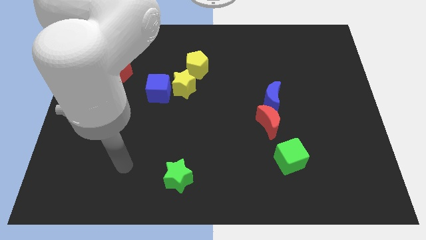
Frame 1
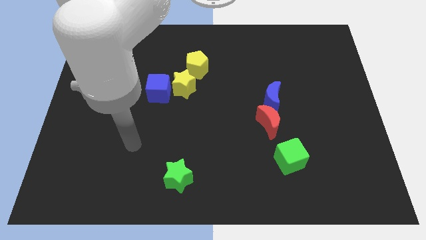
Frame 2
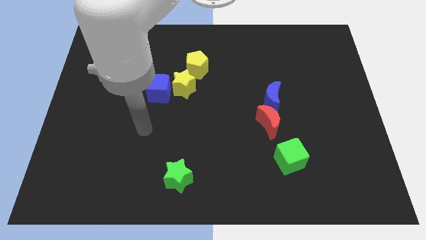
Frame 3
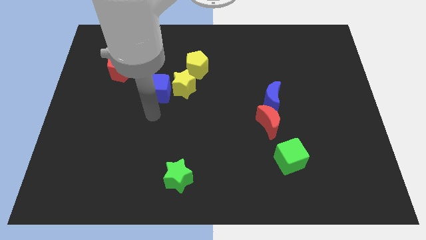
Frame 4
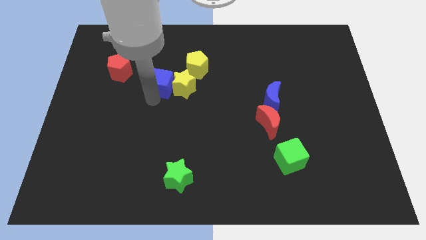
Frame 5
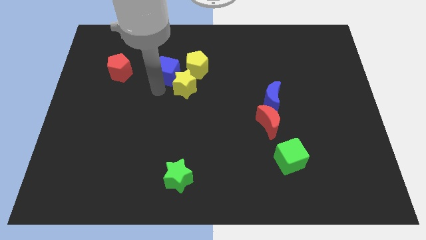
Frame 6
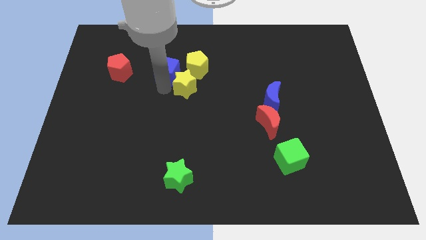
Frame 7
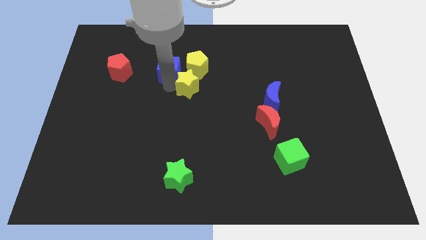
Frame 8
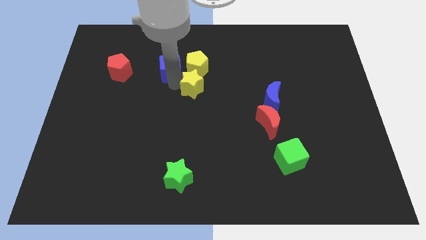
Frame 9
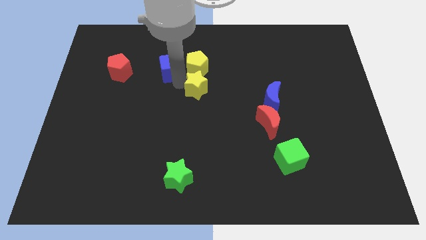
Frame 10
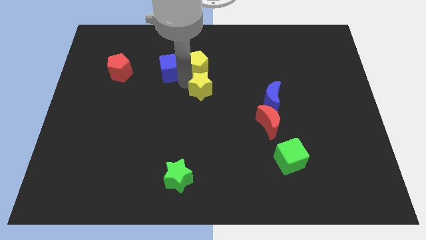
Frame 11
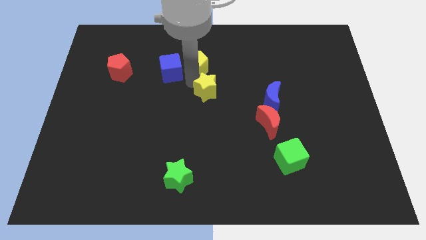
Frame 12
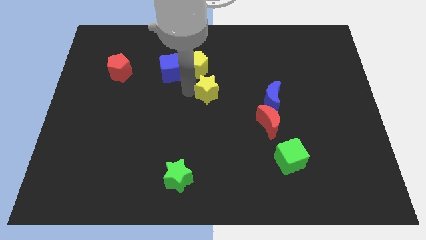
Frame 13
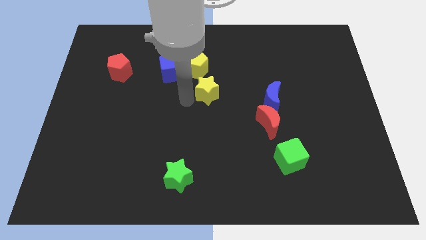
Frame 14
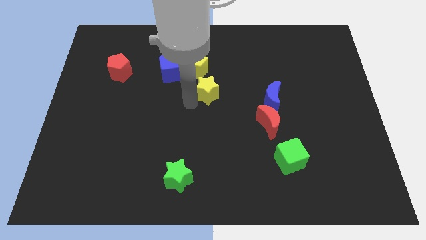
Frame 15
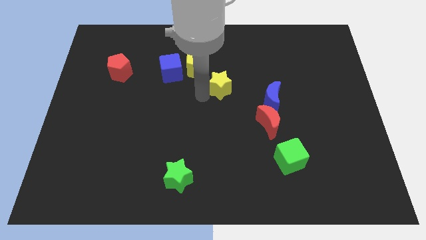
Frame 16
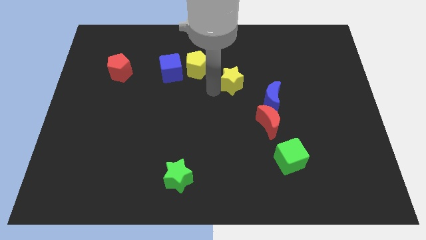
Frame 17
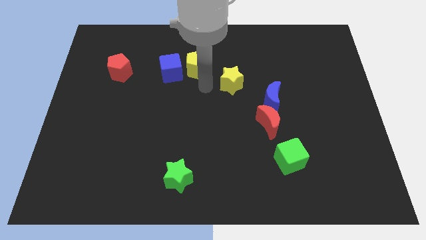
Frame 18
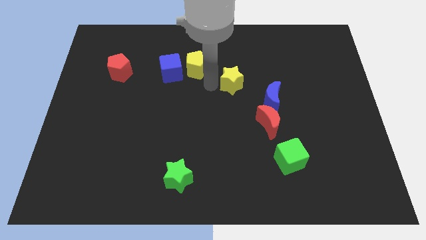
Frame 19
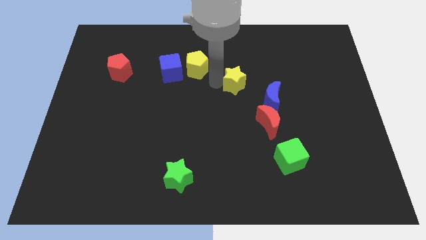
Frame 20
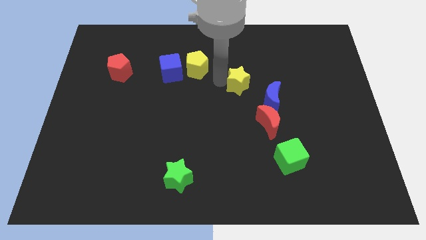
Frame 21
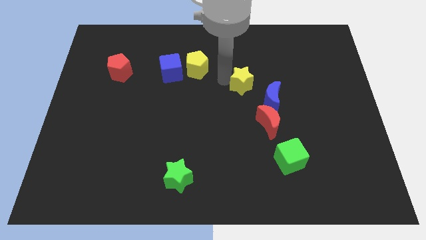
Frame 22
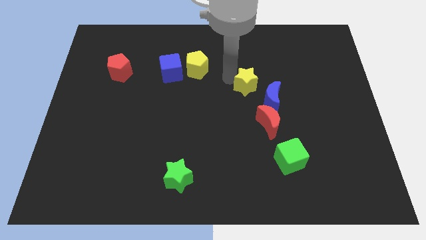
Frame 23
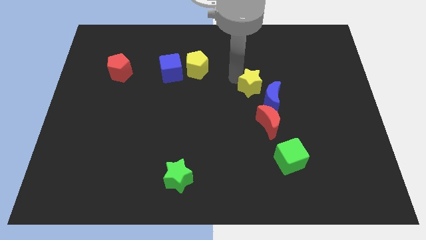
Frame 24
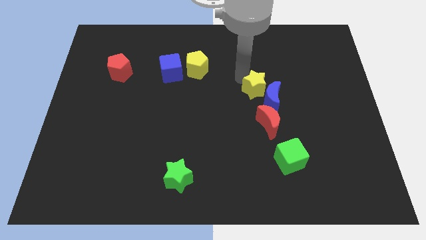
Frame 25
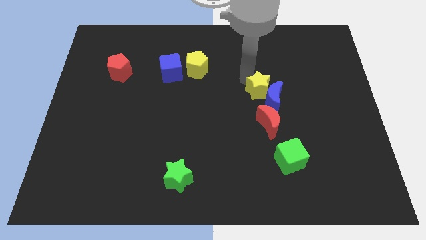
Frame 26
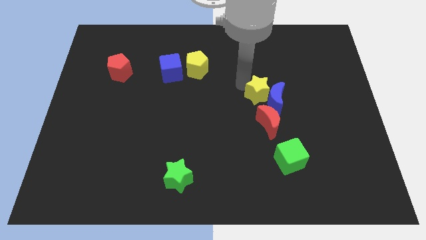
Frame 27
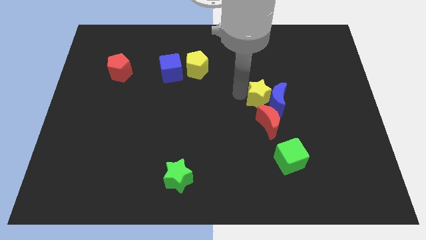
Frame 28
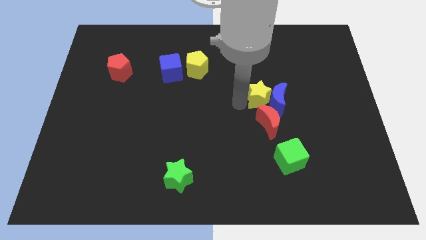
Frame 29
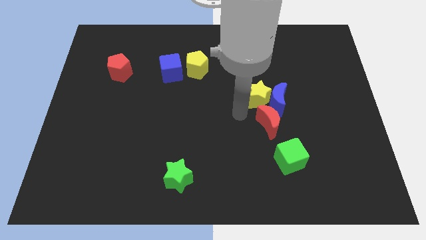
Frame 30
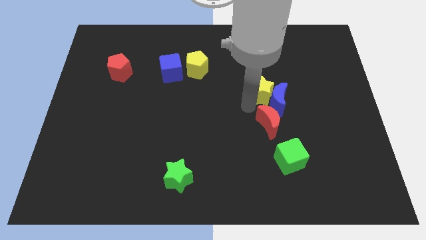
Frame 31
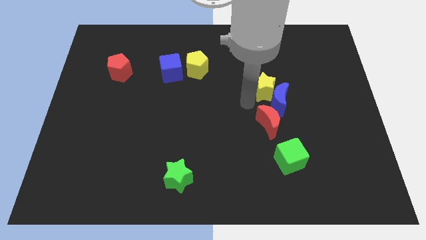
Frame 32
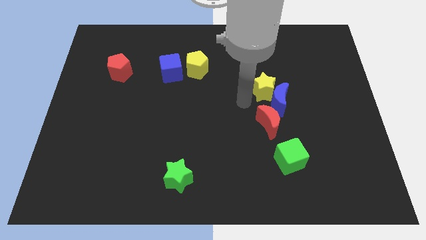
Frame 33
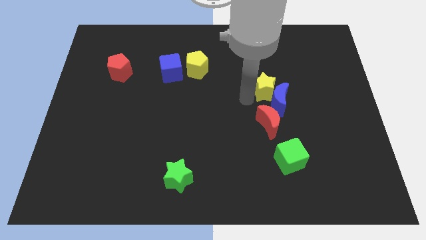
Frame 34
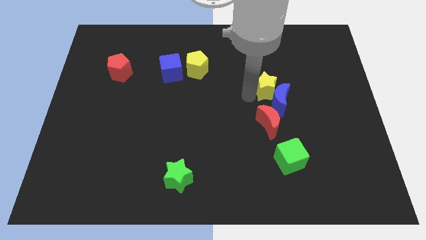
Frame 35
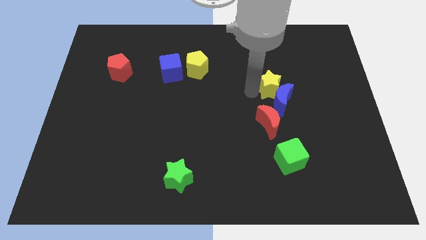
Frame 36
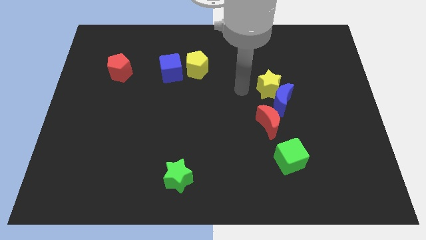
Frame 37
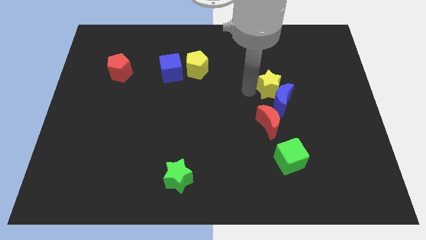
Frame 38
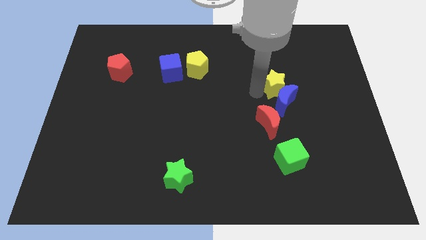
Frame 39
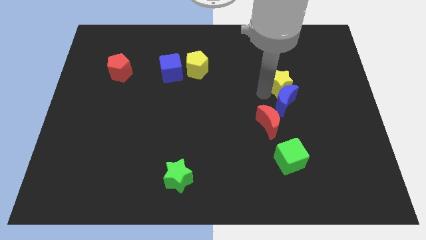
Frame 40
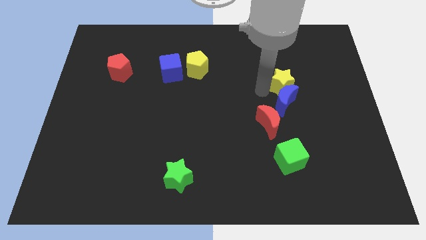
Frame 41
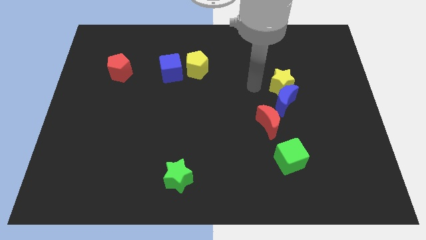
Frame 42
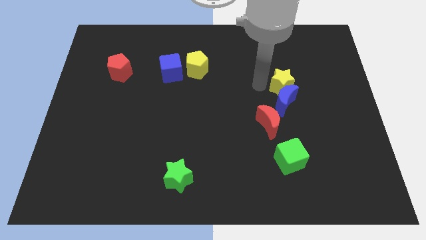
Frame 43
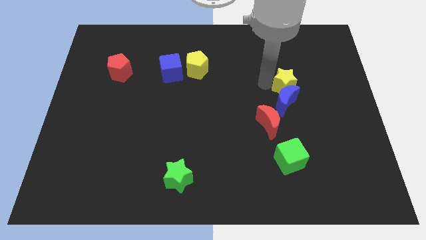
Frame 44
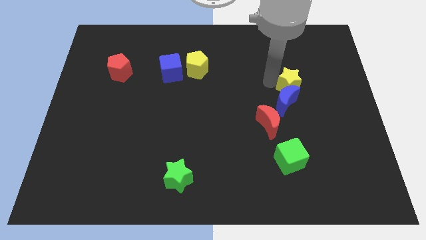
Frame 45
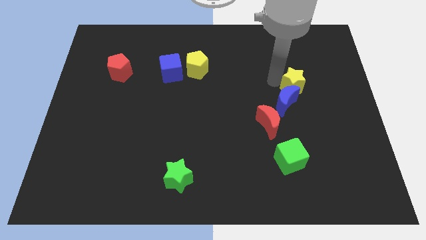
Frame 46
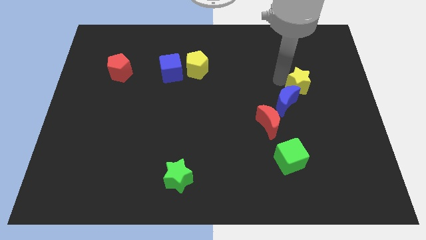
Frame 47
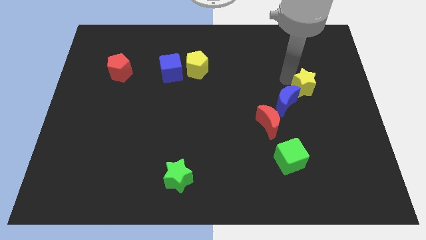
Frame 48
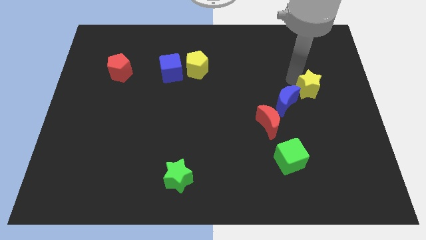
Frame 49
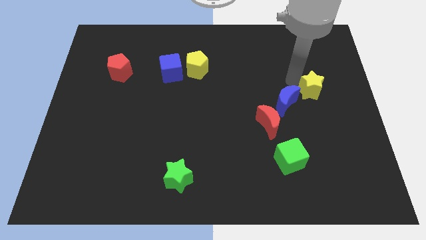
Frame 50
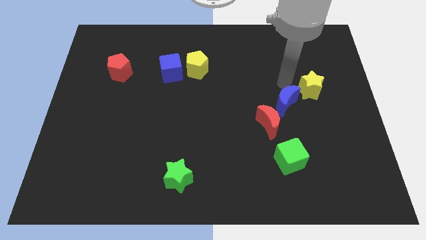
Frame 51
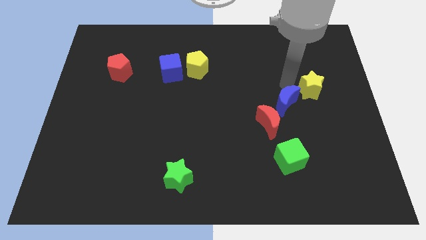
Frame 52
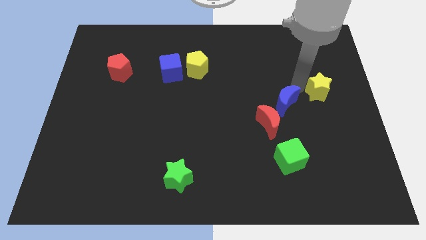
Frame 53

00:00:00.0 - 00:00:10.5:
push the yellow star to the right side

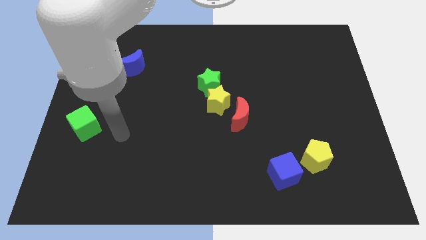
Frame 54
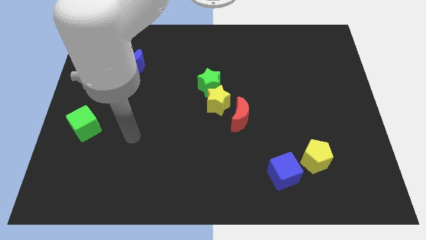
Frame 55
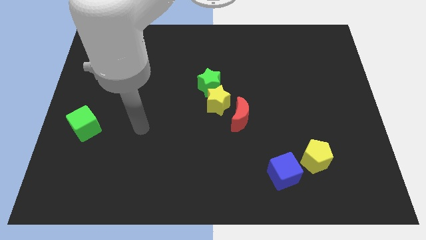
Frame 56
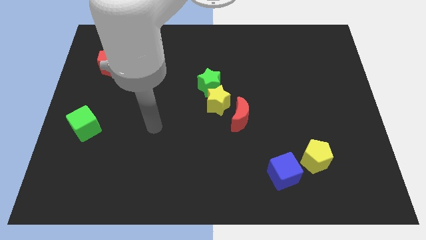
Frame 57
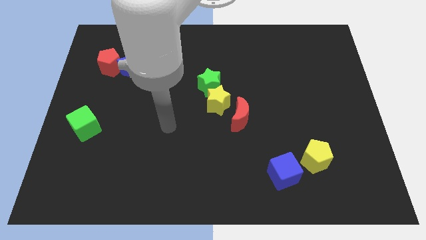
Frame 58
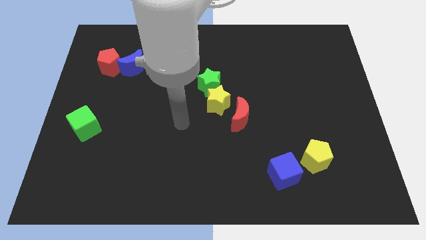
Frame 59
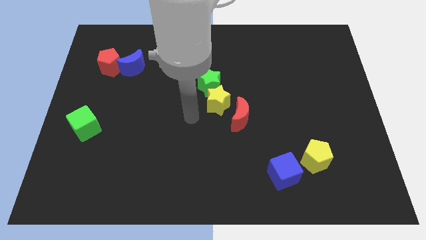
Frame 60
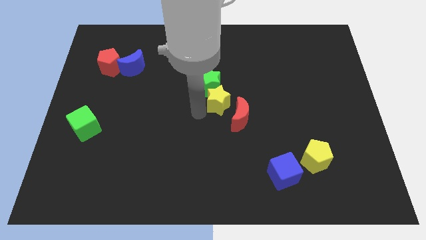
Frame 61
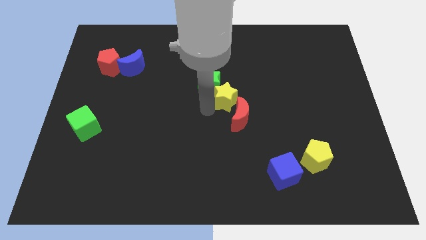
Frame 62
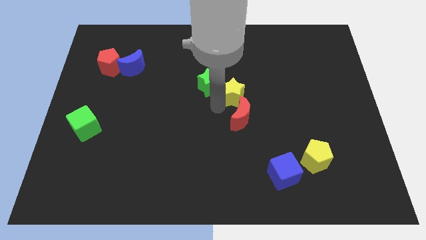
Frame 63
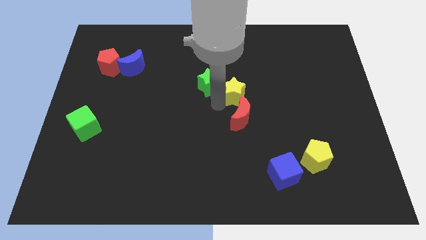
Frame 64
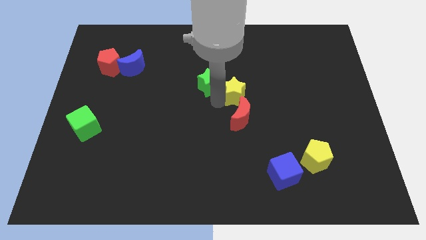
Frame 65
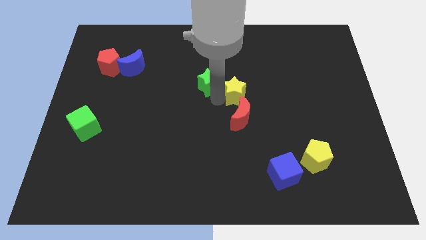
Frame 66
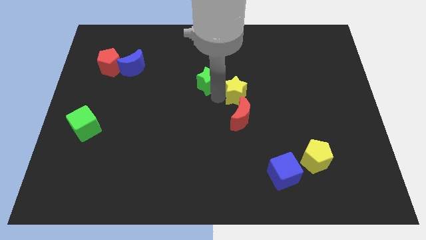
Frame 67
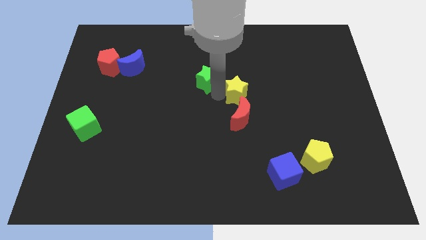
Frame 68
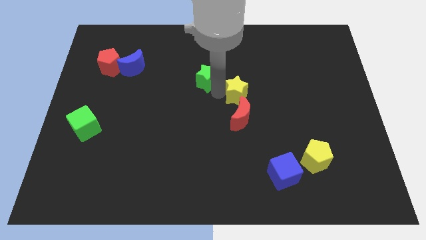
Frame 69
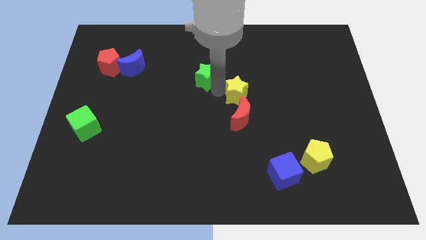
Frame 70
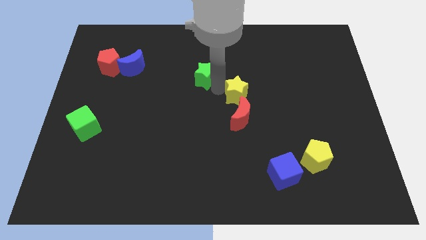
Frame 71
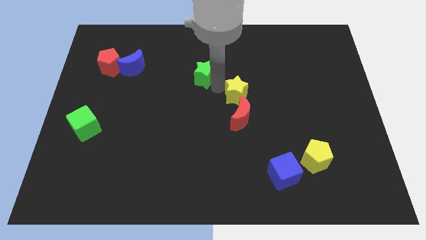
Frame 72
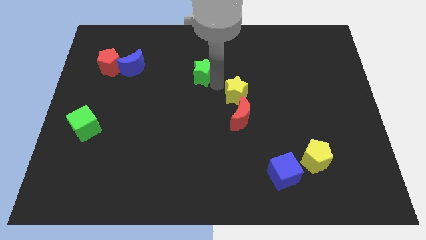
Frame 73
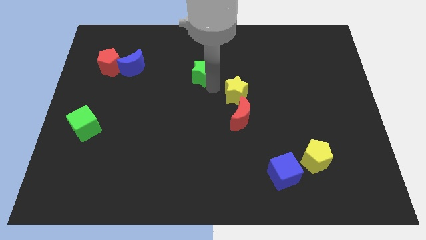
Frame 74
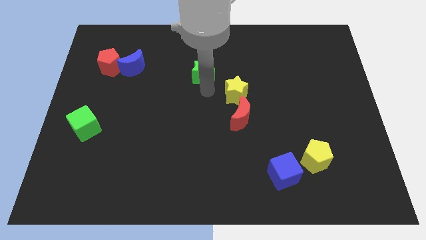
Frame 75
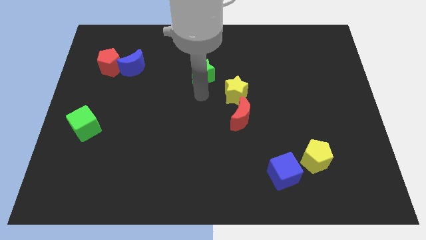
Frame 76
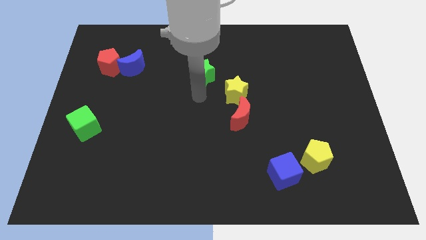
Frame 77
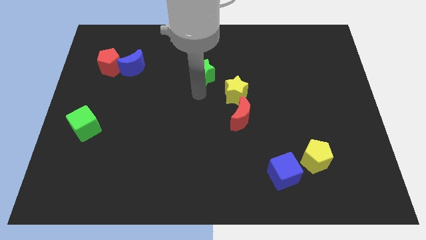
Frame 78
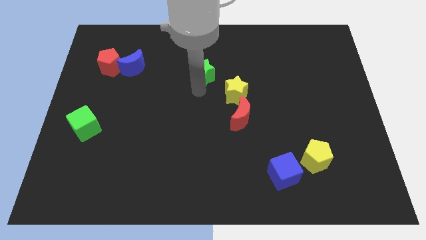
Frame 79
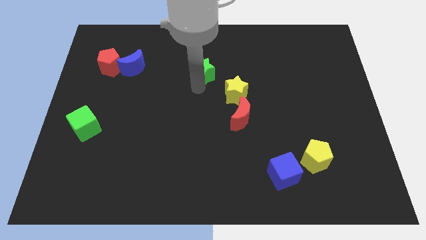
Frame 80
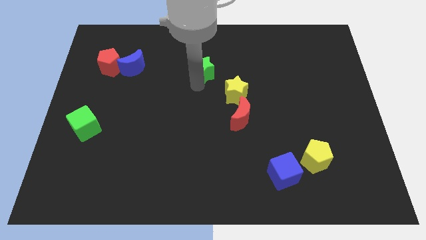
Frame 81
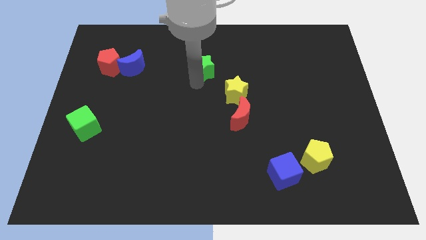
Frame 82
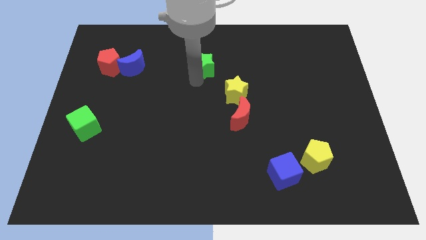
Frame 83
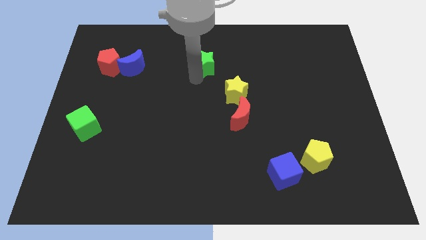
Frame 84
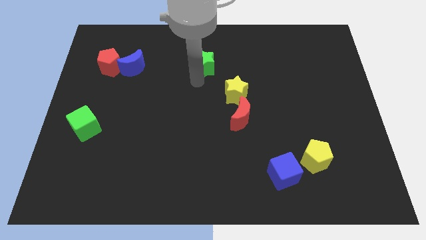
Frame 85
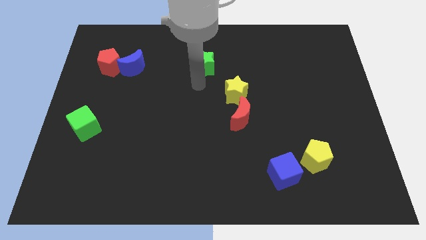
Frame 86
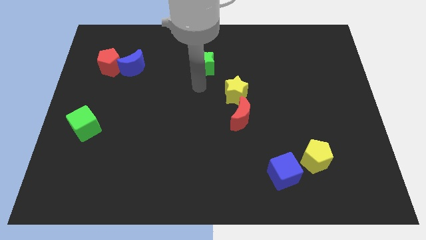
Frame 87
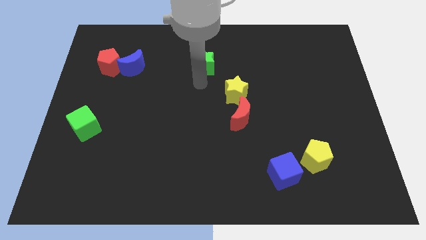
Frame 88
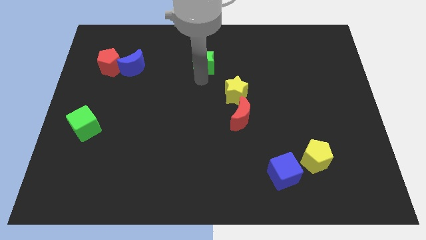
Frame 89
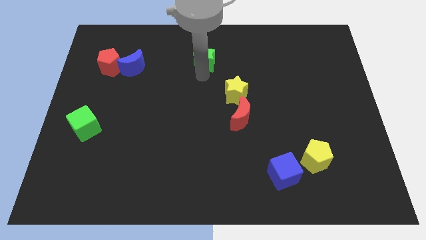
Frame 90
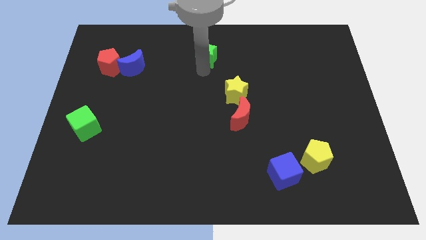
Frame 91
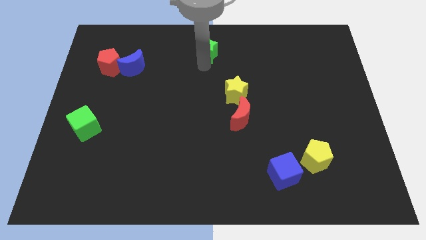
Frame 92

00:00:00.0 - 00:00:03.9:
slide the green star to the top
